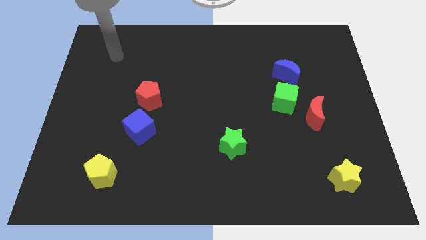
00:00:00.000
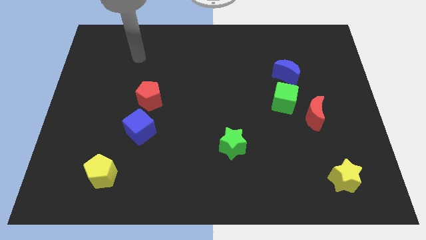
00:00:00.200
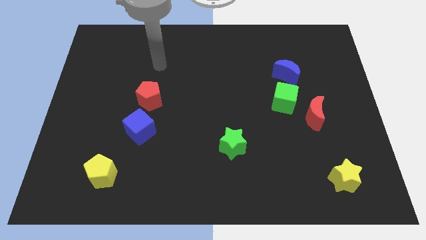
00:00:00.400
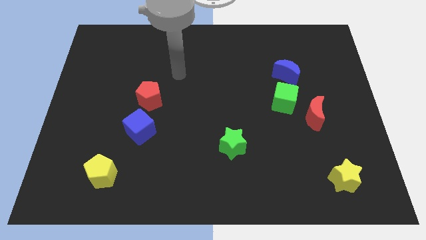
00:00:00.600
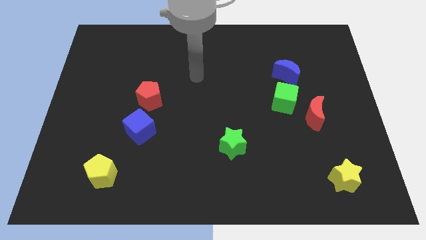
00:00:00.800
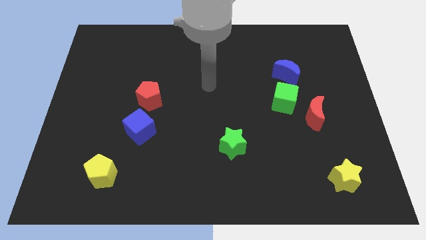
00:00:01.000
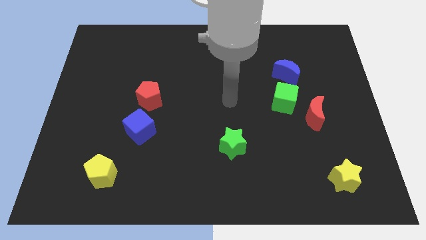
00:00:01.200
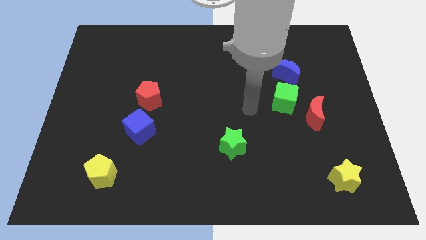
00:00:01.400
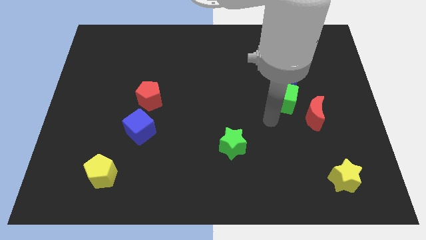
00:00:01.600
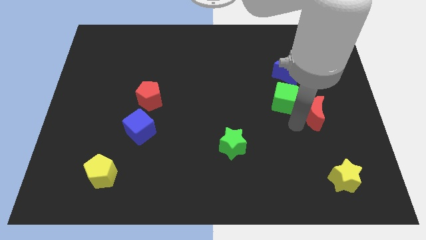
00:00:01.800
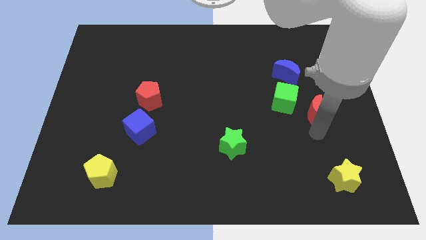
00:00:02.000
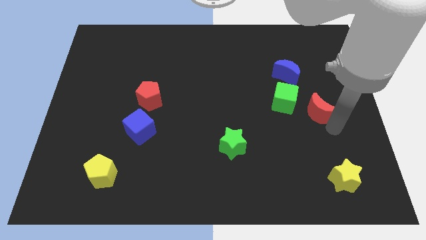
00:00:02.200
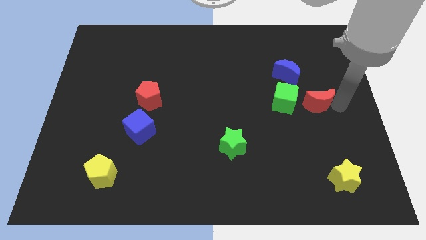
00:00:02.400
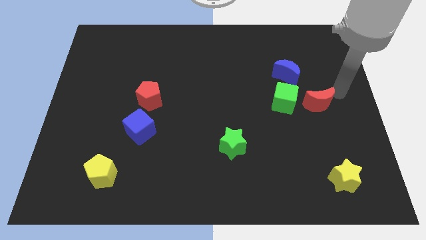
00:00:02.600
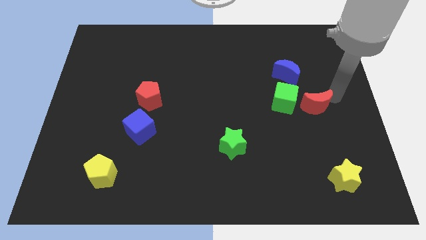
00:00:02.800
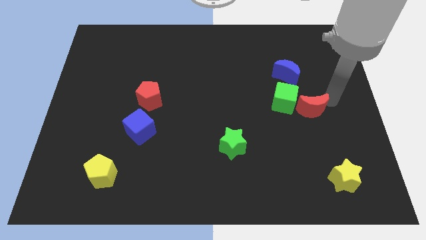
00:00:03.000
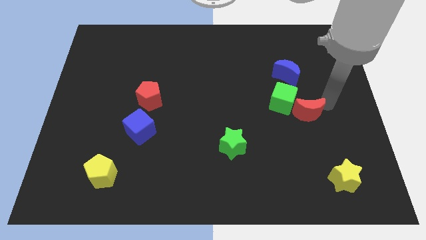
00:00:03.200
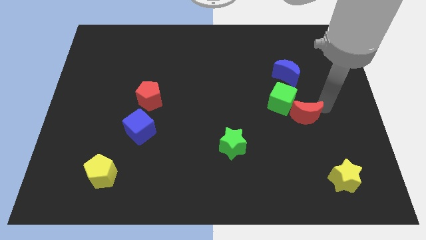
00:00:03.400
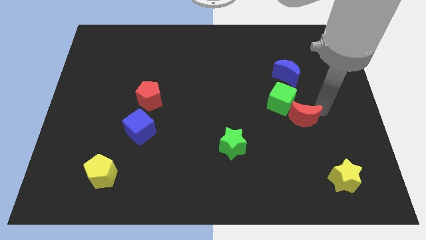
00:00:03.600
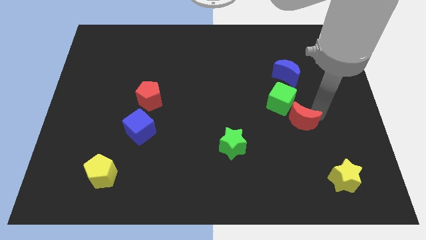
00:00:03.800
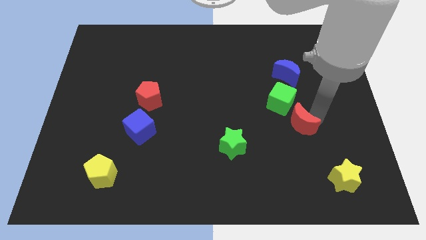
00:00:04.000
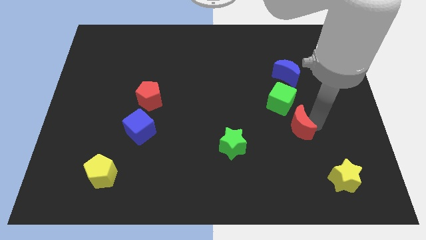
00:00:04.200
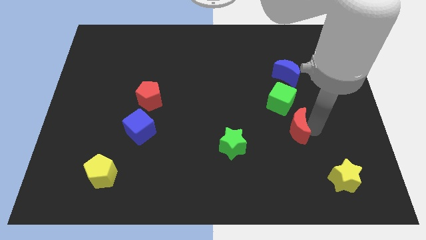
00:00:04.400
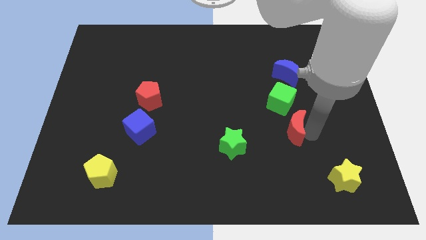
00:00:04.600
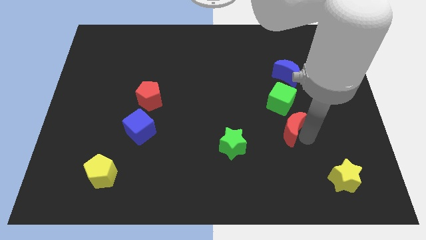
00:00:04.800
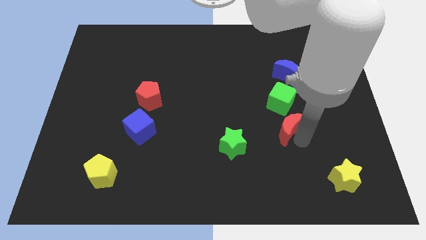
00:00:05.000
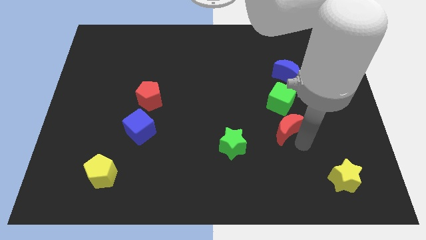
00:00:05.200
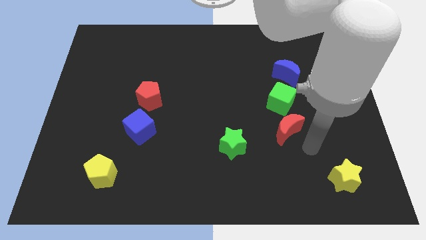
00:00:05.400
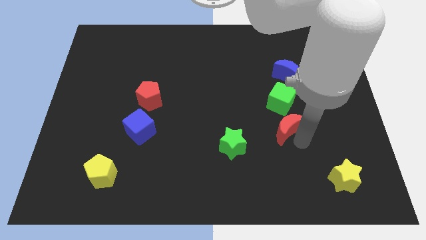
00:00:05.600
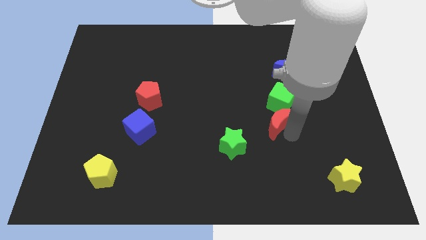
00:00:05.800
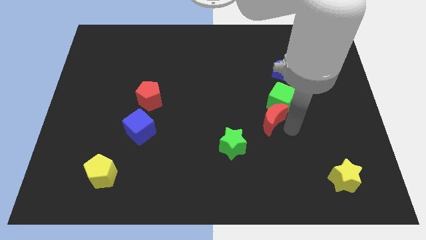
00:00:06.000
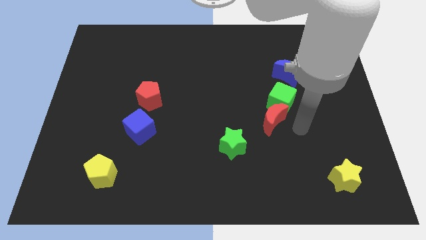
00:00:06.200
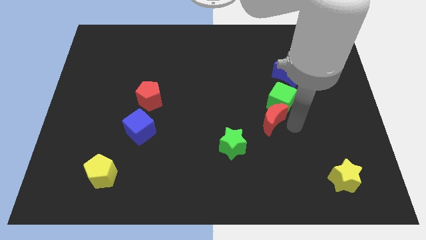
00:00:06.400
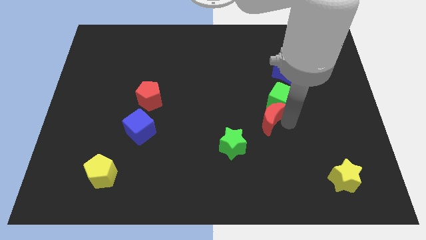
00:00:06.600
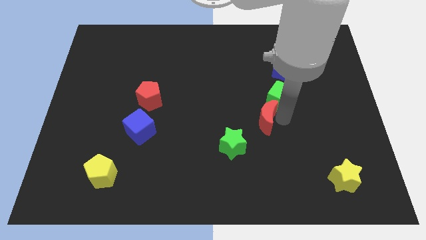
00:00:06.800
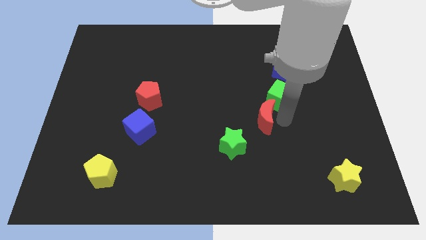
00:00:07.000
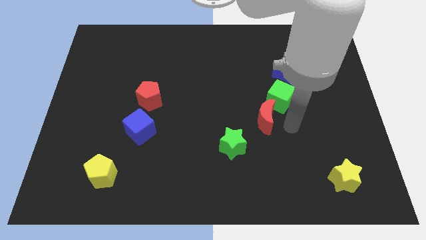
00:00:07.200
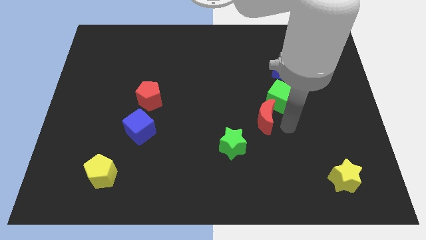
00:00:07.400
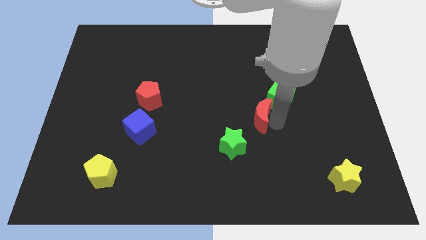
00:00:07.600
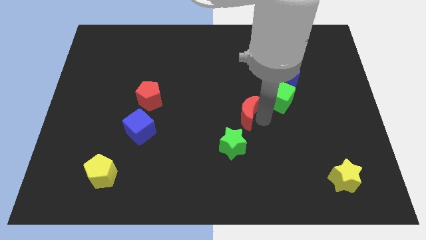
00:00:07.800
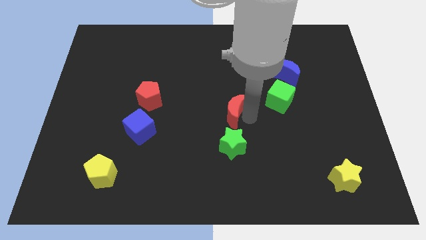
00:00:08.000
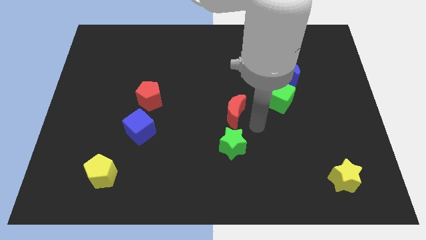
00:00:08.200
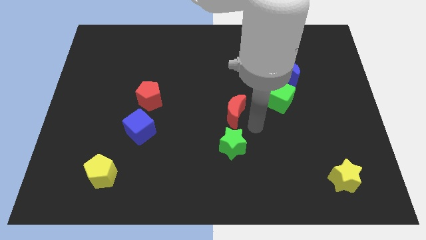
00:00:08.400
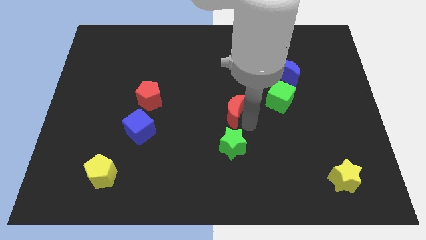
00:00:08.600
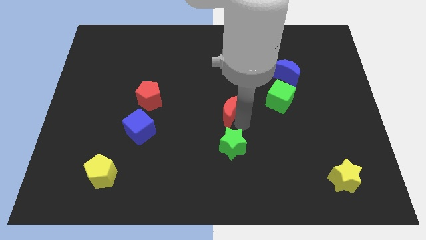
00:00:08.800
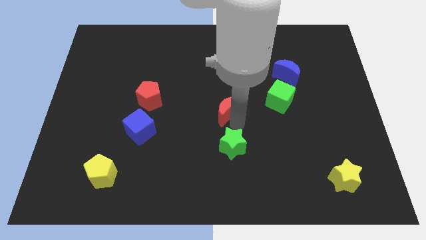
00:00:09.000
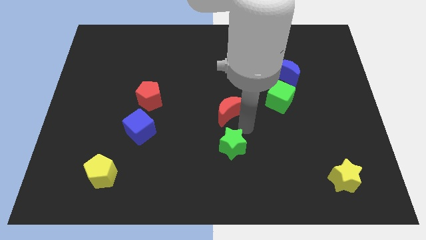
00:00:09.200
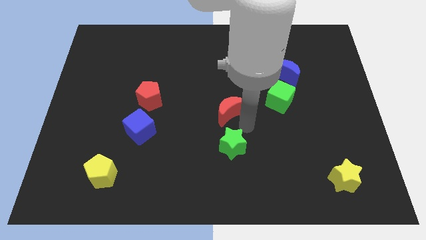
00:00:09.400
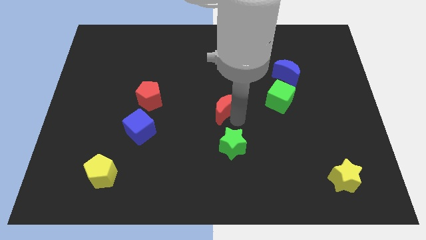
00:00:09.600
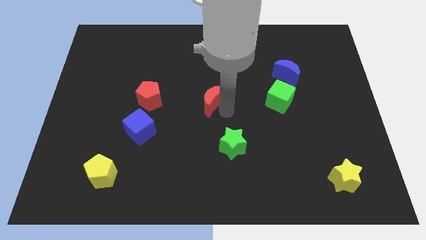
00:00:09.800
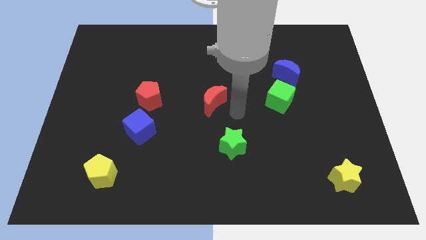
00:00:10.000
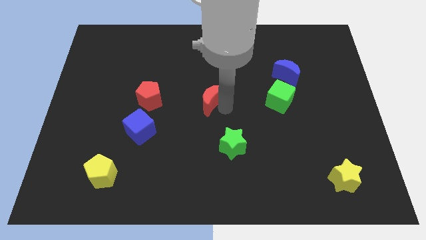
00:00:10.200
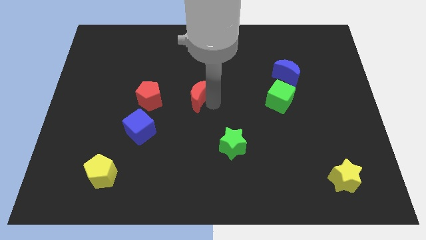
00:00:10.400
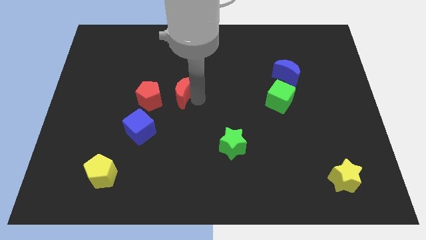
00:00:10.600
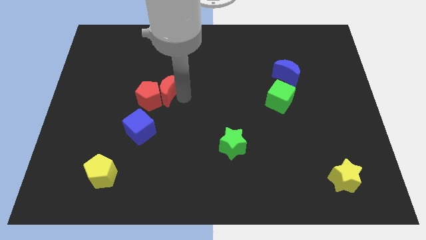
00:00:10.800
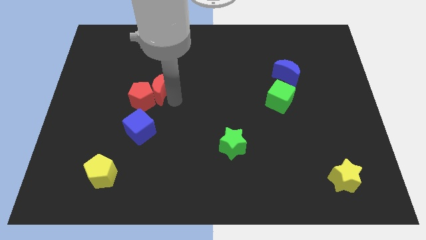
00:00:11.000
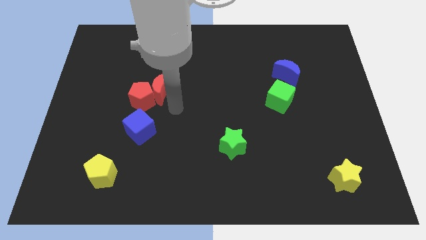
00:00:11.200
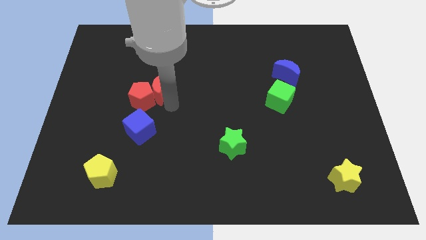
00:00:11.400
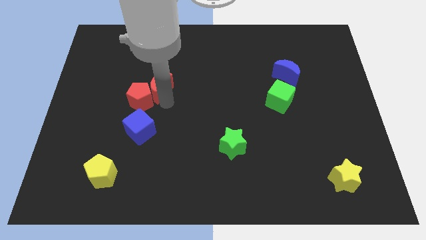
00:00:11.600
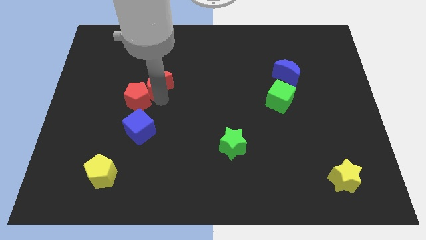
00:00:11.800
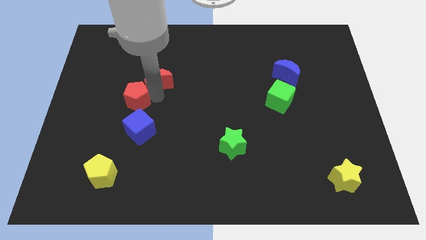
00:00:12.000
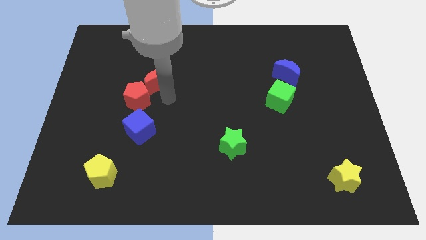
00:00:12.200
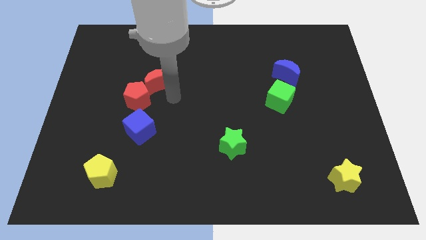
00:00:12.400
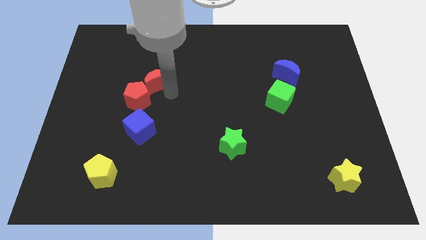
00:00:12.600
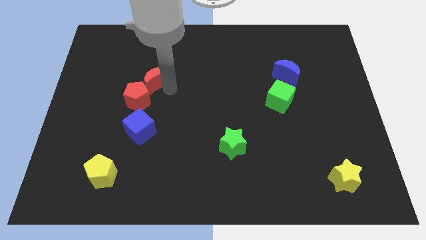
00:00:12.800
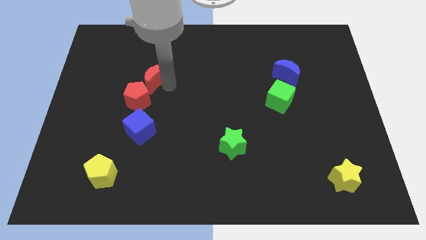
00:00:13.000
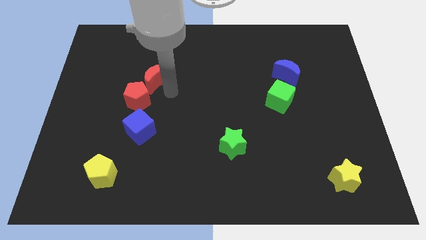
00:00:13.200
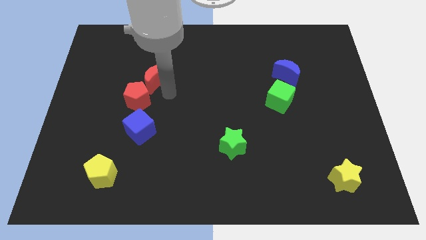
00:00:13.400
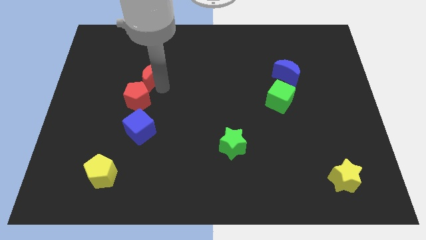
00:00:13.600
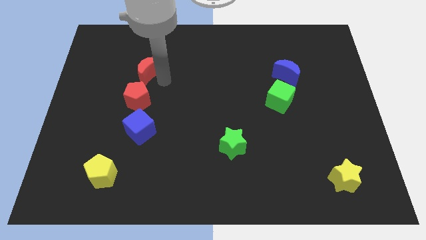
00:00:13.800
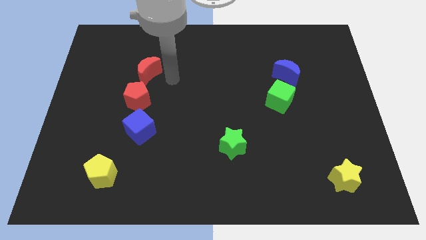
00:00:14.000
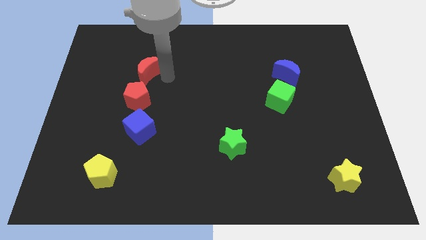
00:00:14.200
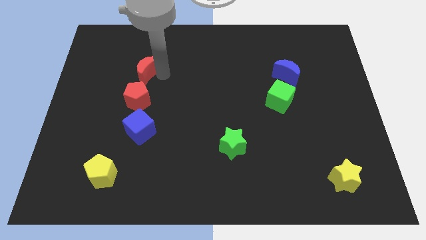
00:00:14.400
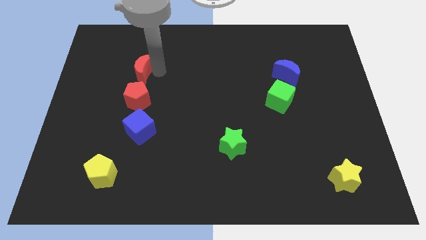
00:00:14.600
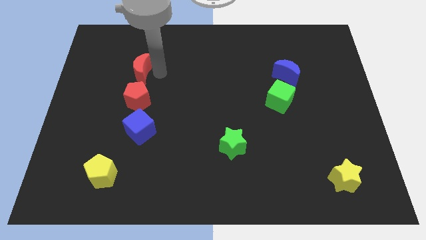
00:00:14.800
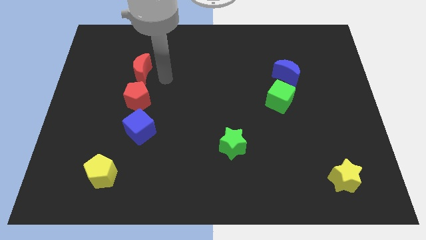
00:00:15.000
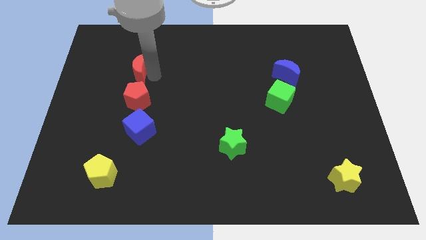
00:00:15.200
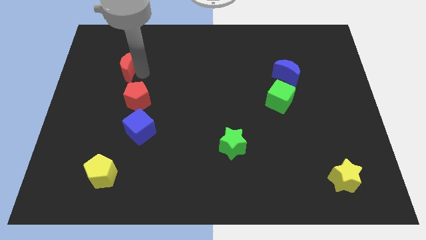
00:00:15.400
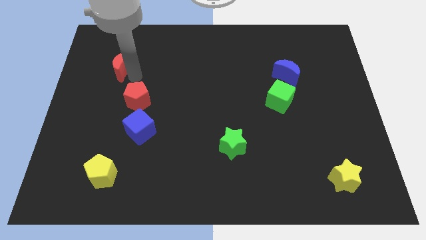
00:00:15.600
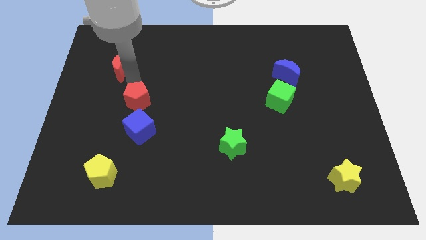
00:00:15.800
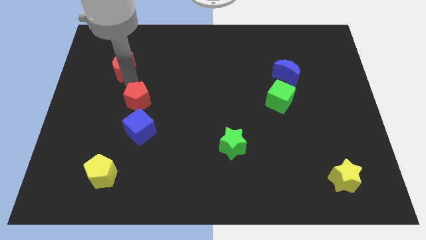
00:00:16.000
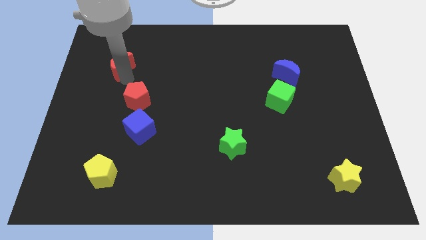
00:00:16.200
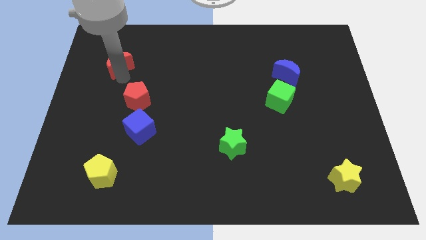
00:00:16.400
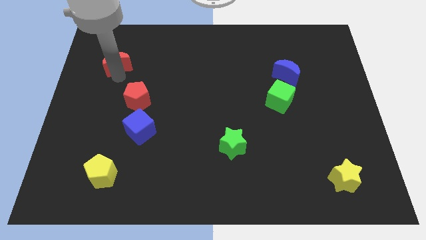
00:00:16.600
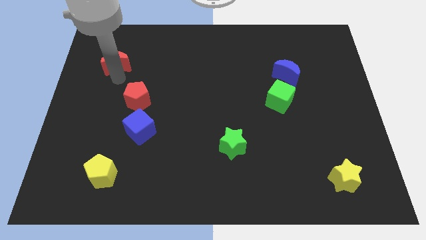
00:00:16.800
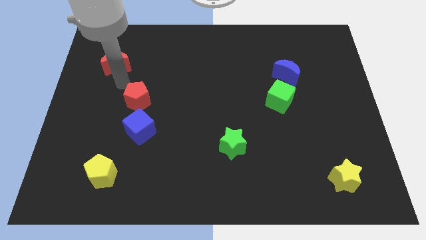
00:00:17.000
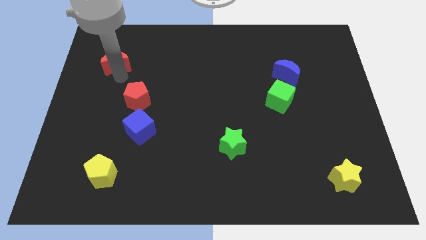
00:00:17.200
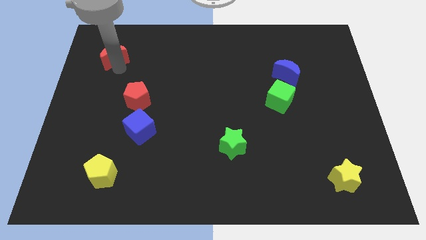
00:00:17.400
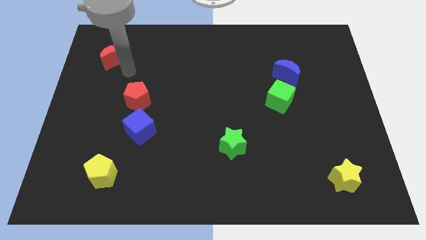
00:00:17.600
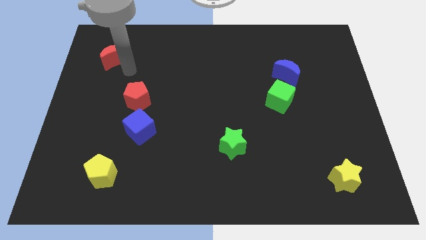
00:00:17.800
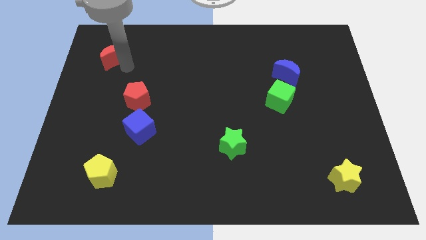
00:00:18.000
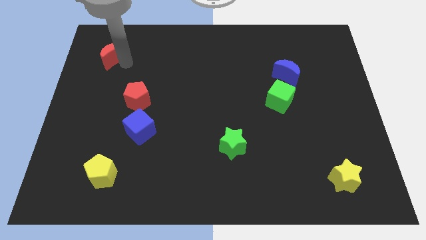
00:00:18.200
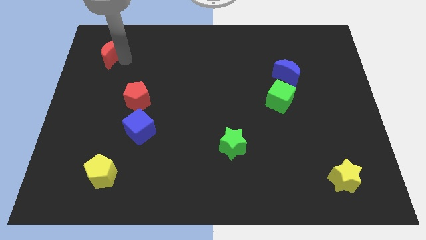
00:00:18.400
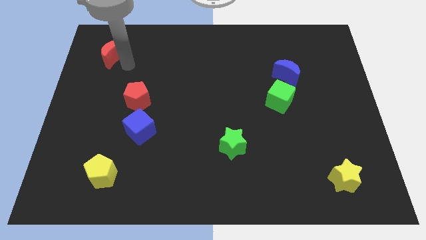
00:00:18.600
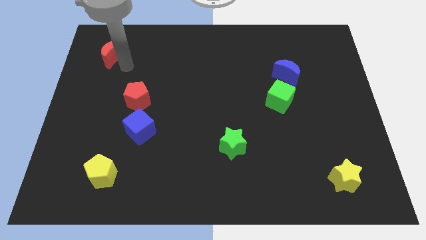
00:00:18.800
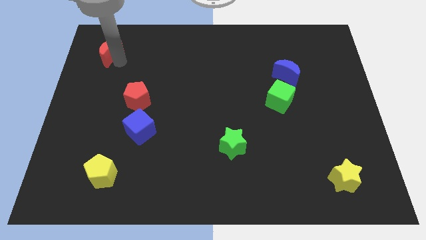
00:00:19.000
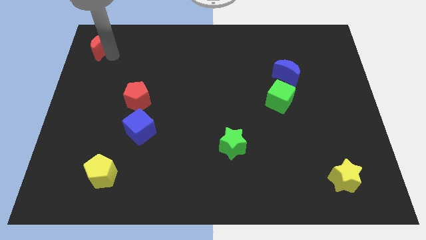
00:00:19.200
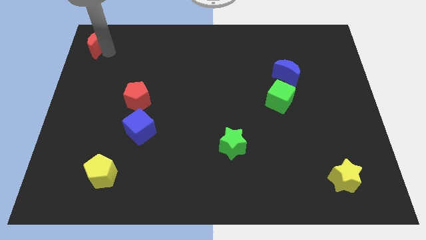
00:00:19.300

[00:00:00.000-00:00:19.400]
put the red moon to the upper left corner
